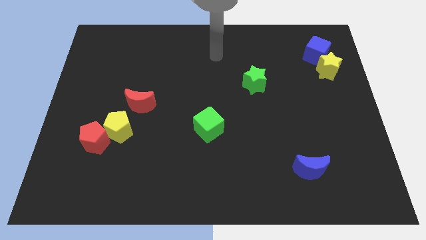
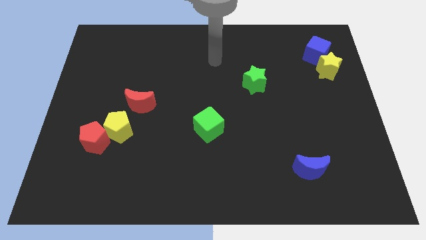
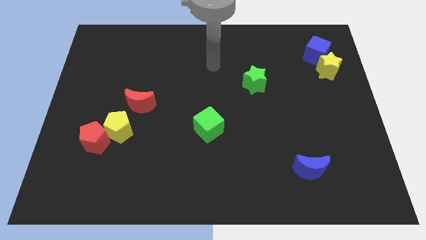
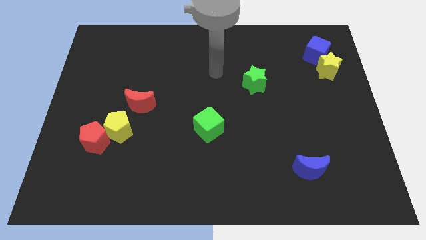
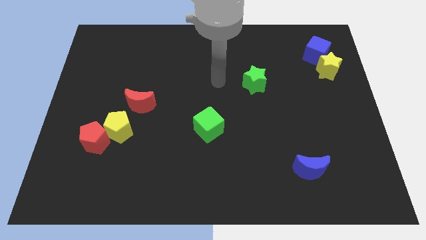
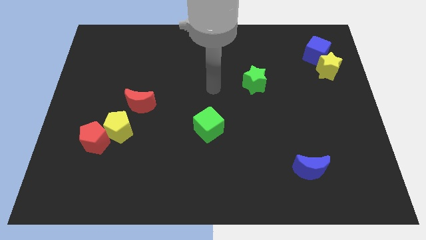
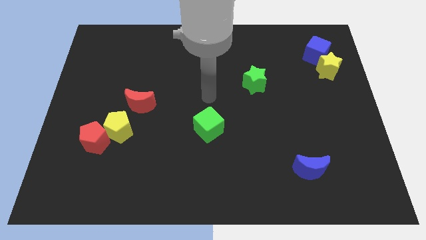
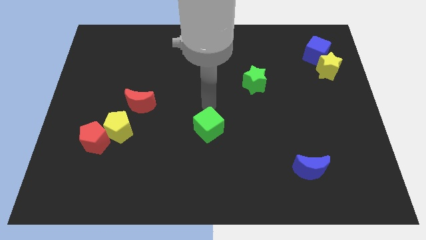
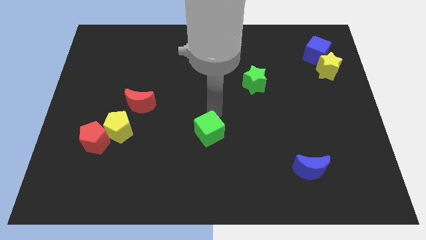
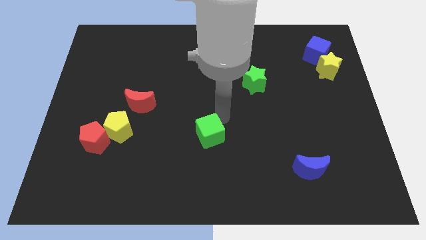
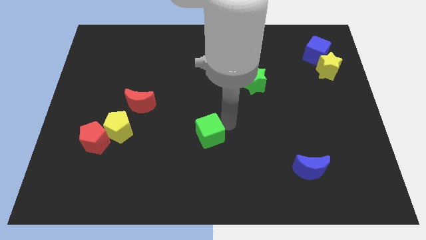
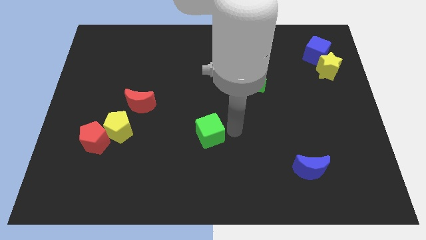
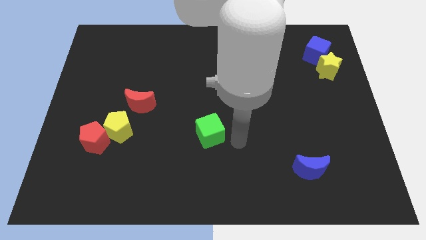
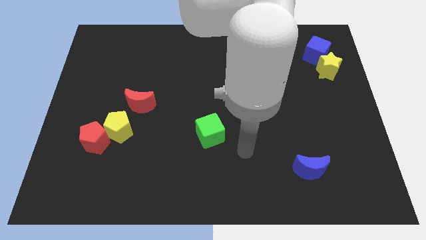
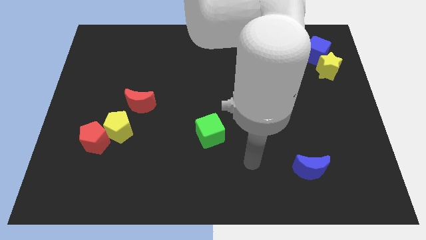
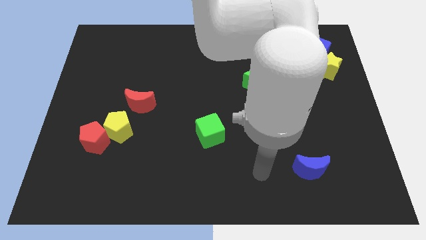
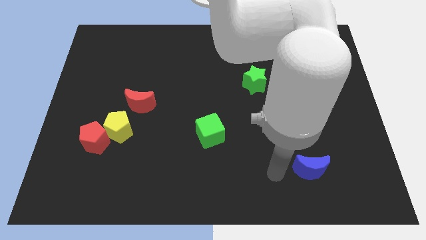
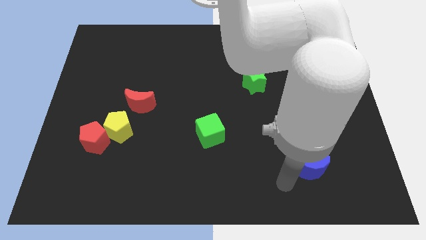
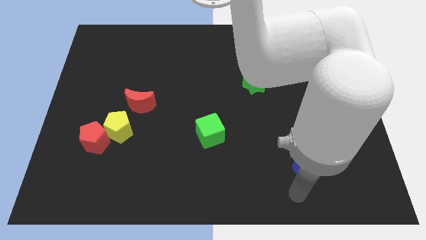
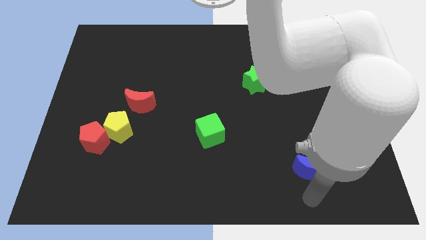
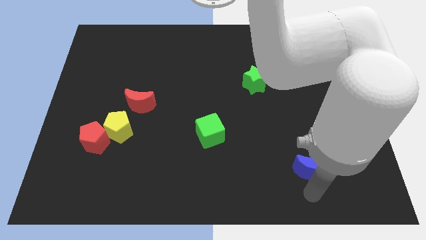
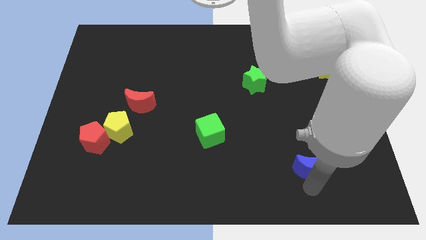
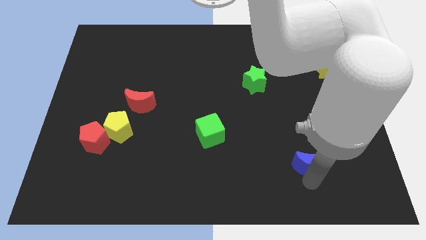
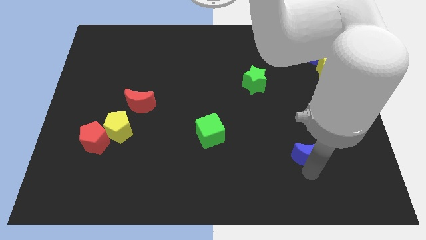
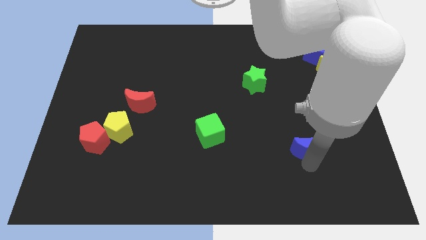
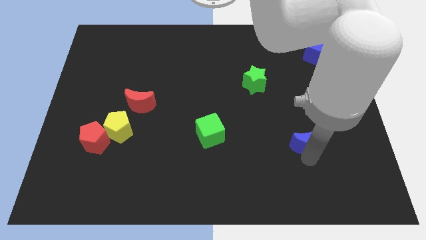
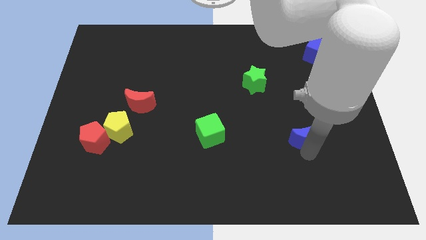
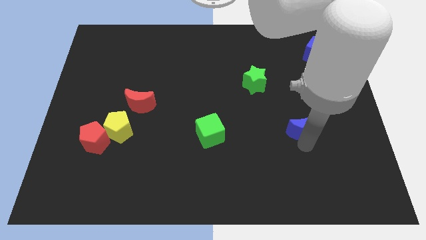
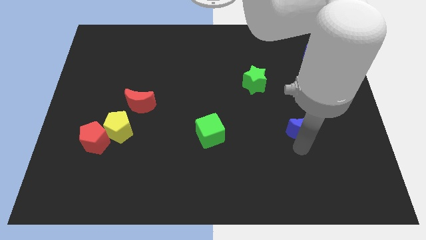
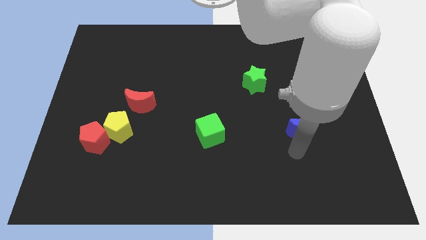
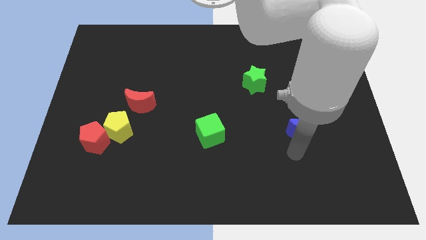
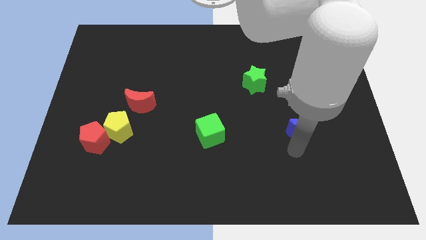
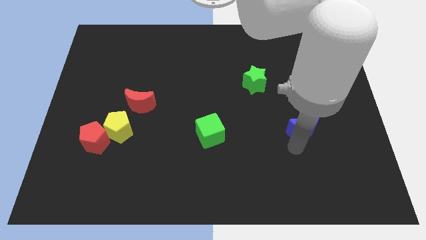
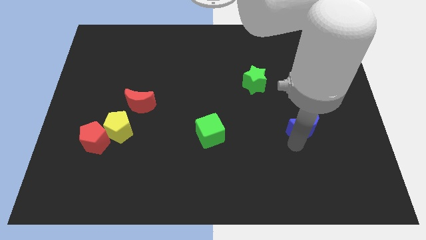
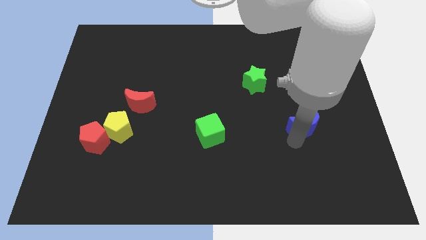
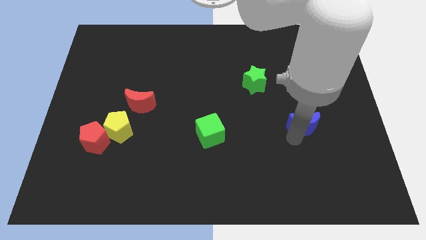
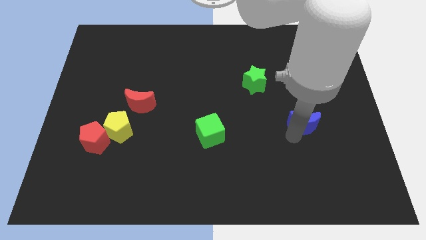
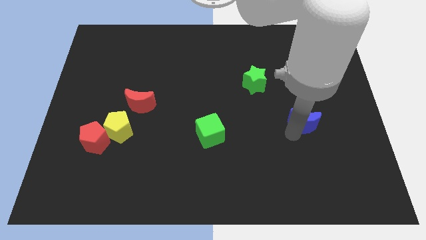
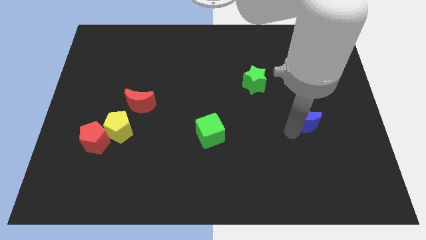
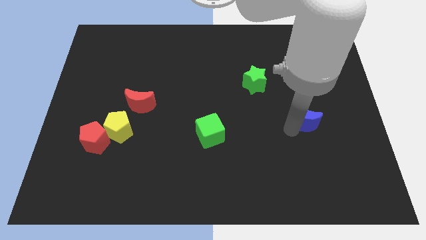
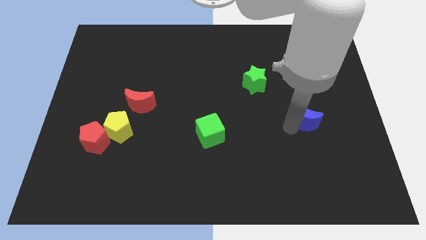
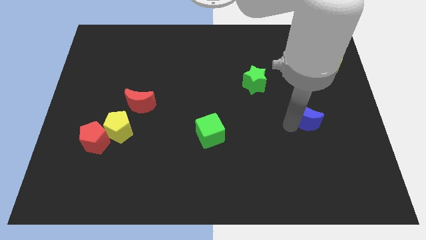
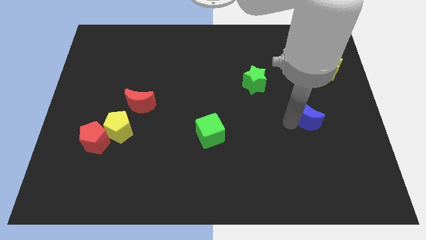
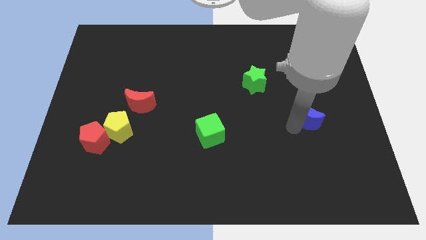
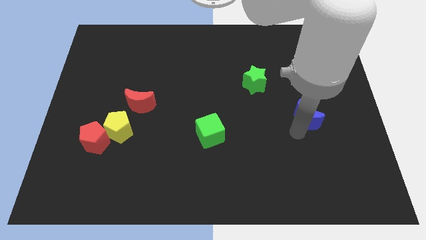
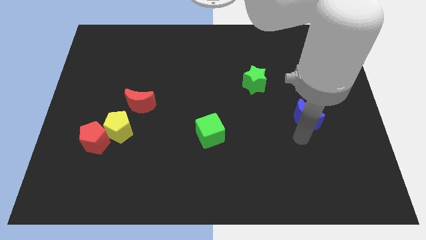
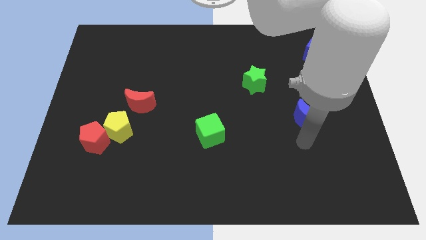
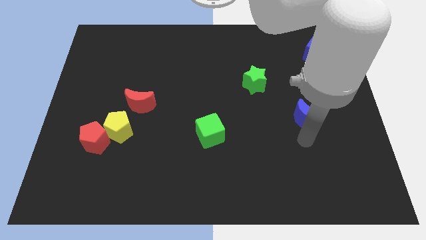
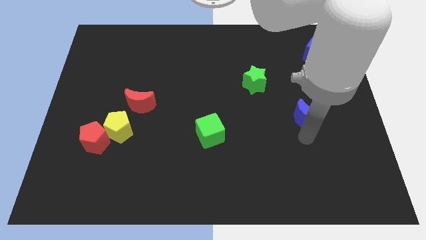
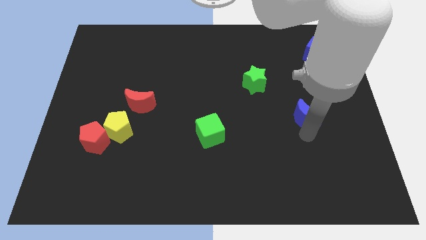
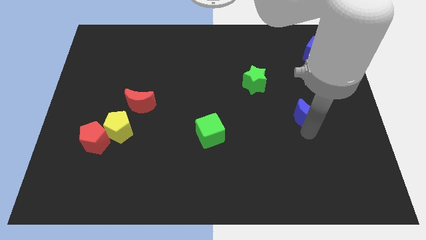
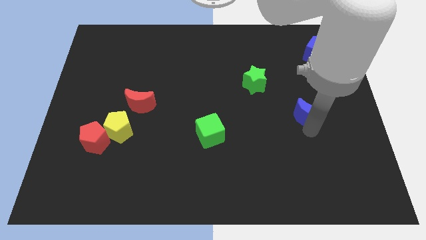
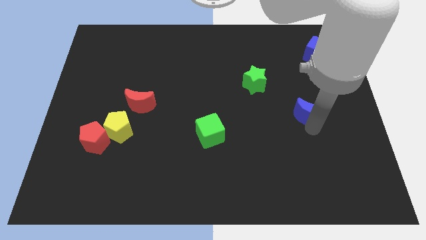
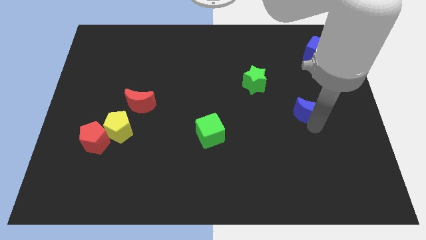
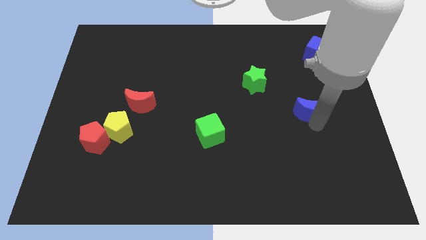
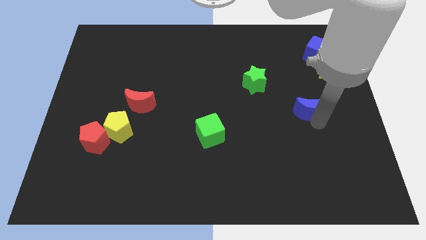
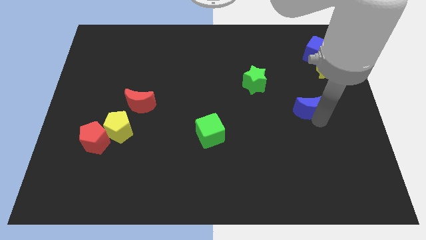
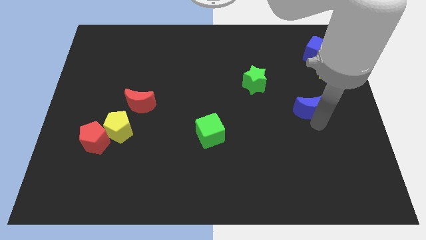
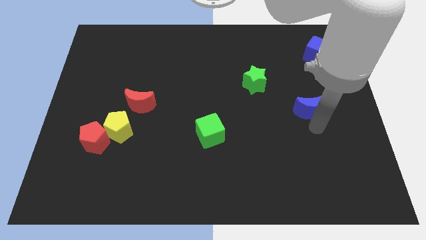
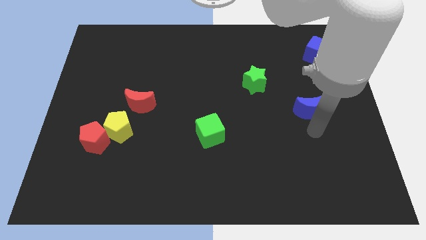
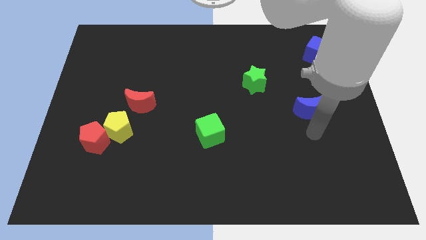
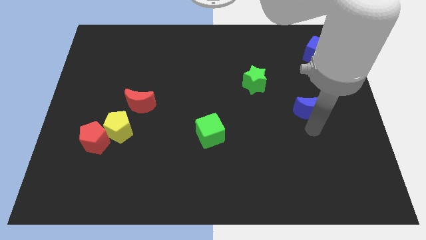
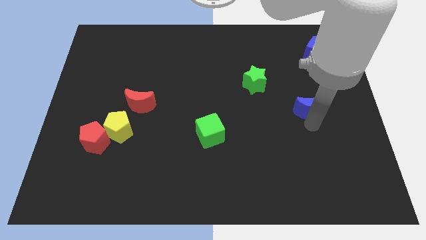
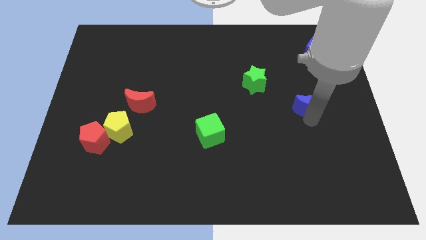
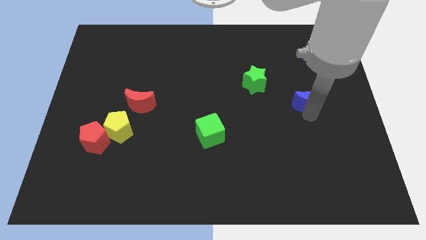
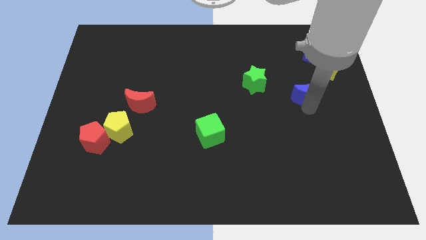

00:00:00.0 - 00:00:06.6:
move the blue moon up

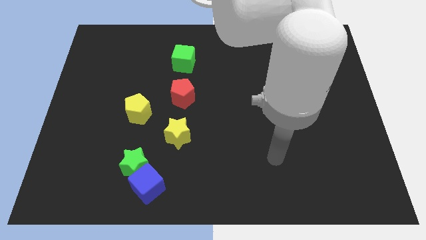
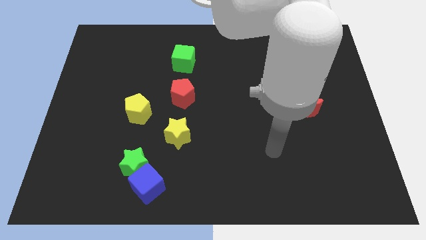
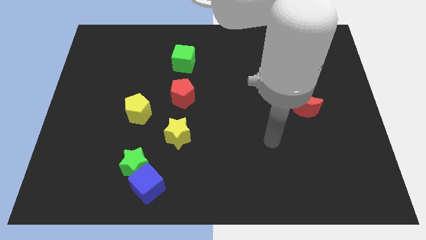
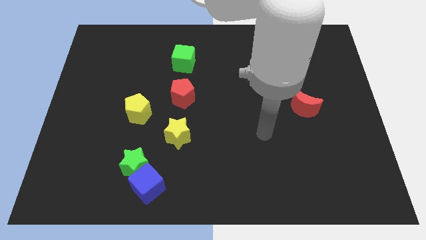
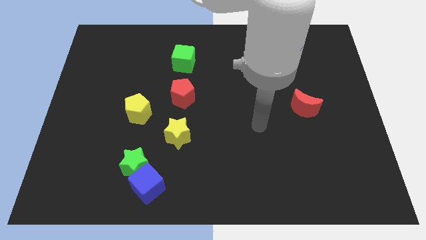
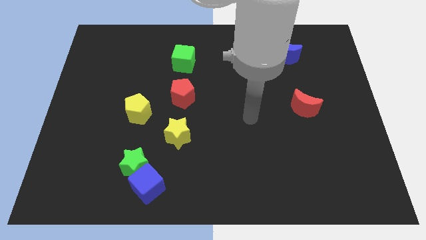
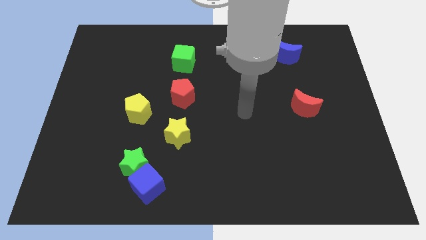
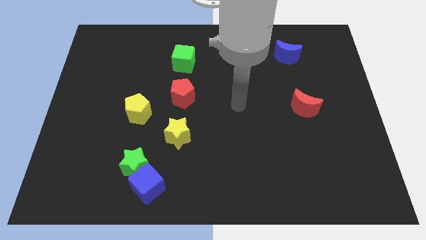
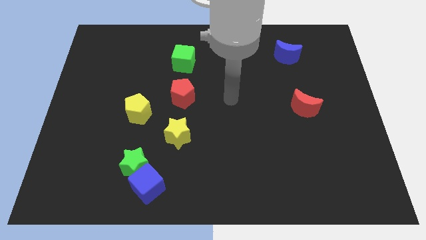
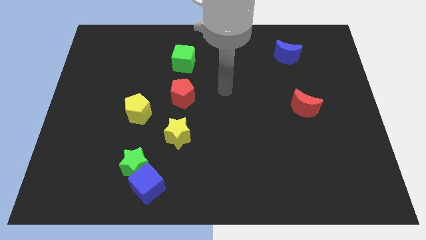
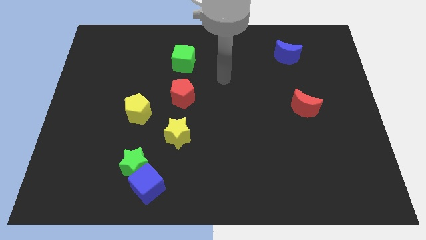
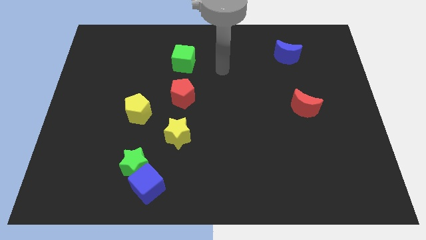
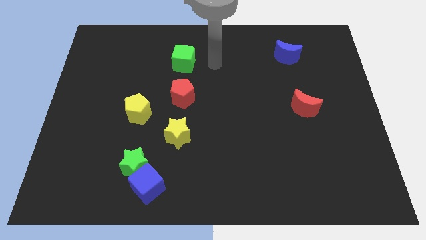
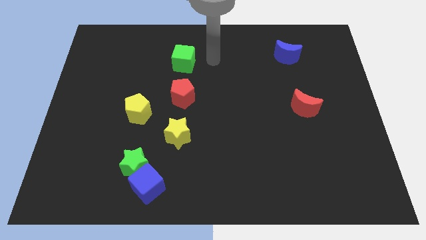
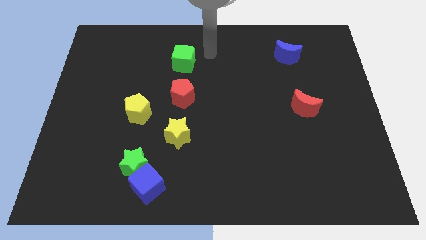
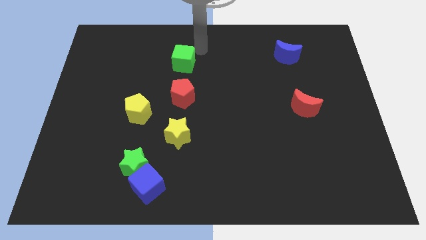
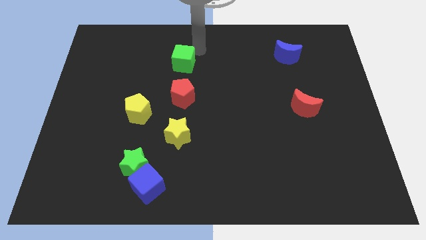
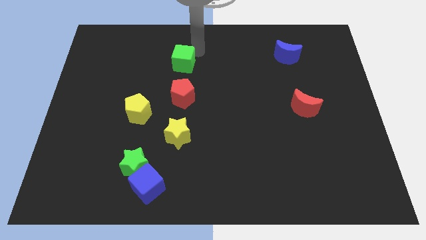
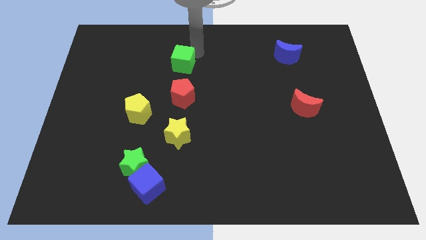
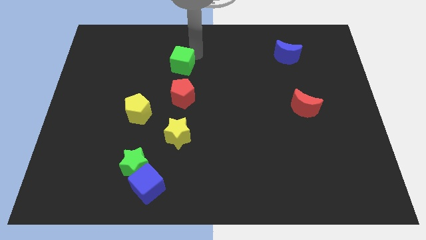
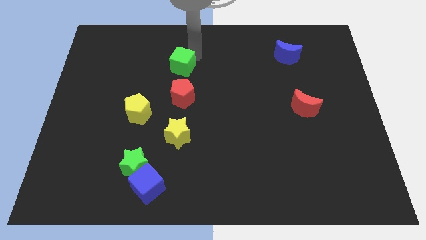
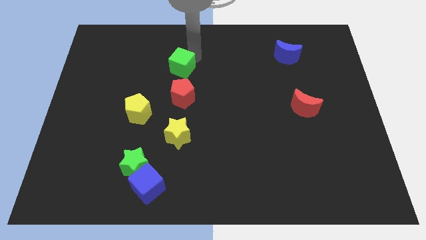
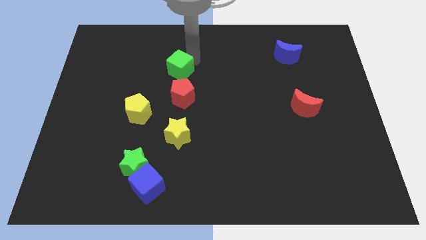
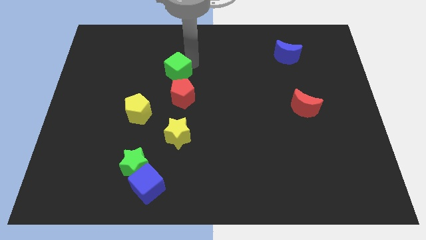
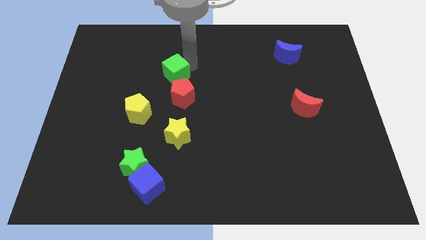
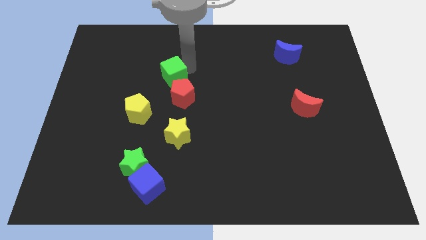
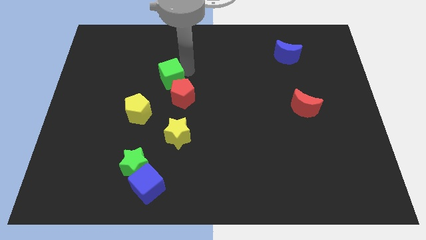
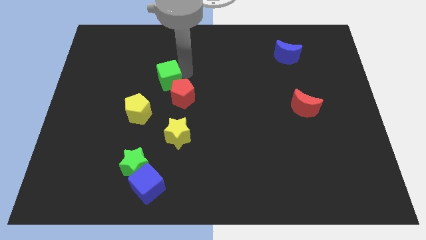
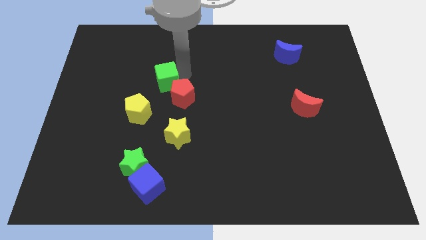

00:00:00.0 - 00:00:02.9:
move the green cube slightly down and left
